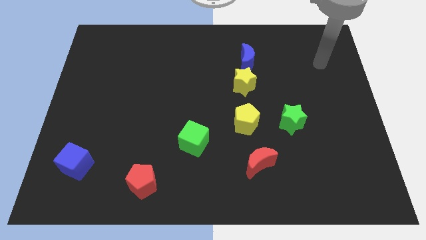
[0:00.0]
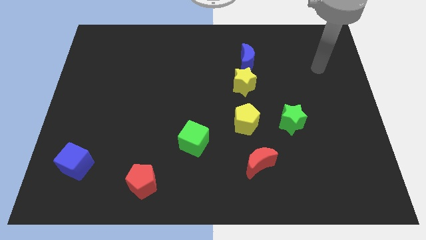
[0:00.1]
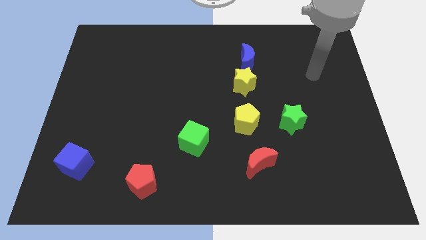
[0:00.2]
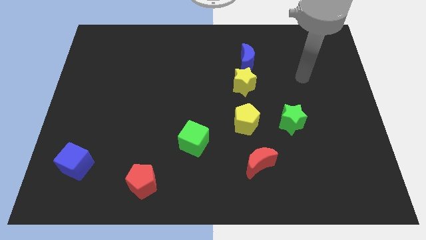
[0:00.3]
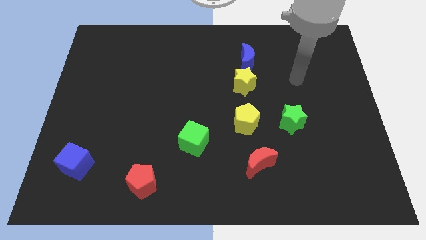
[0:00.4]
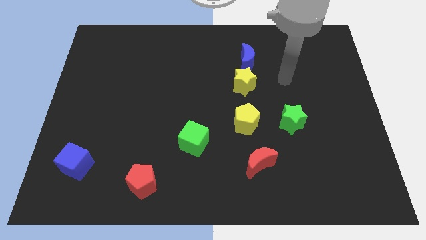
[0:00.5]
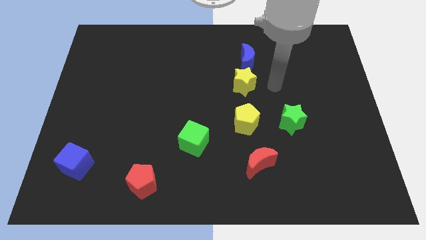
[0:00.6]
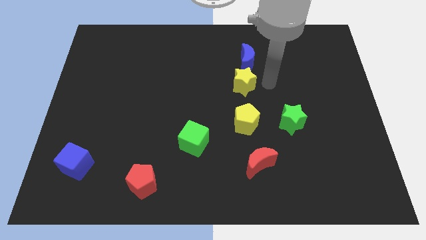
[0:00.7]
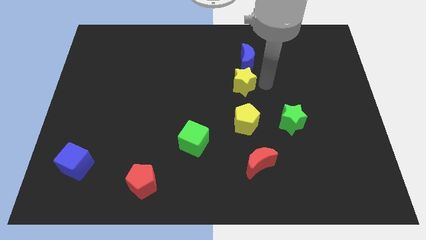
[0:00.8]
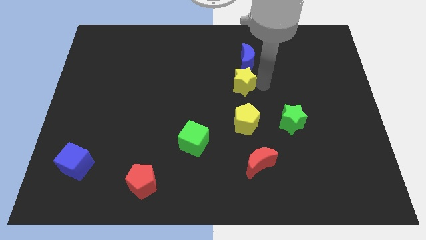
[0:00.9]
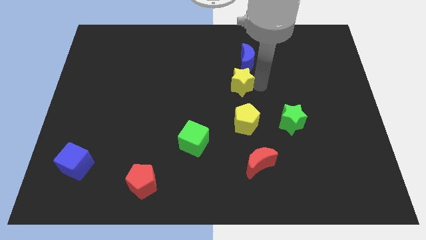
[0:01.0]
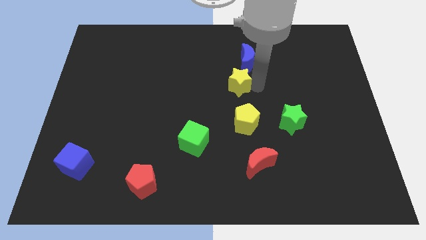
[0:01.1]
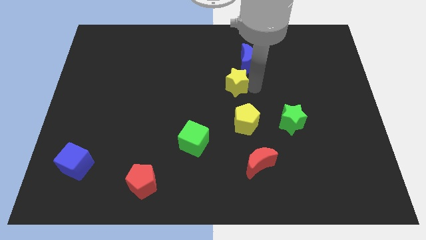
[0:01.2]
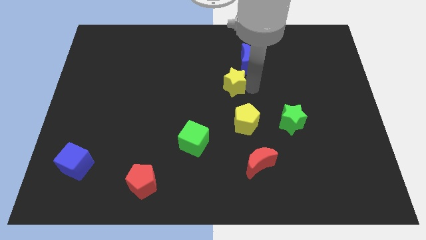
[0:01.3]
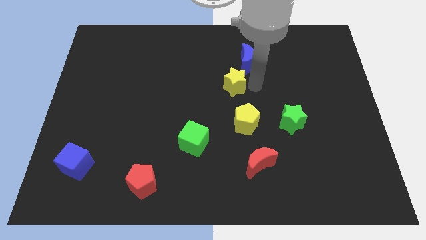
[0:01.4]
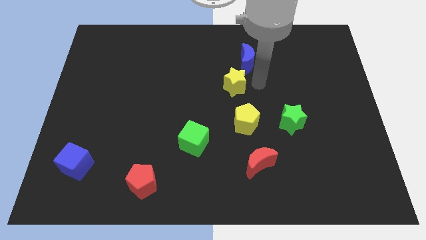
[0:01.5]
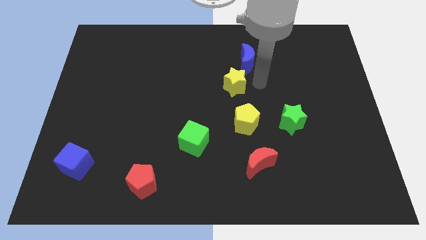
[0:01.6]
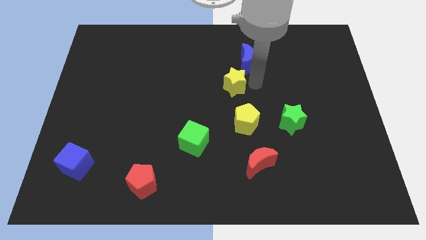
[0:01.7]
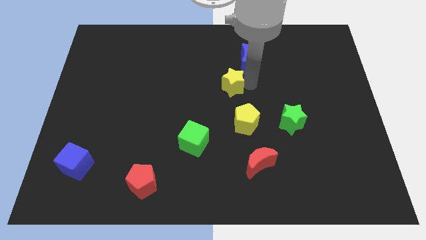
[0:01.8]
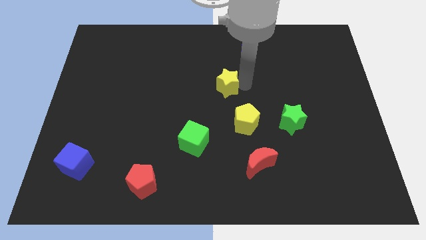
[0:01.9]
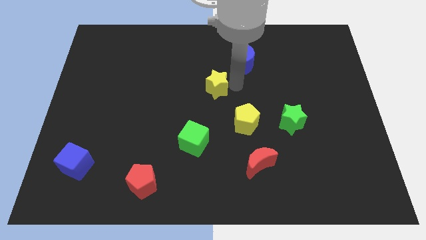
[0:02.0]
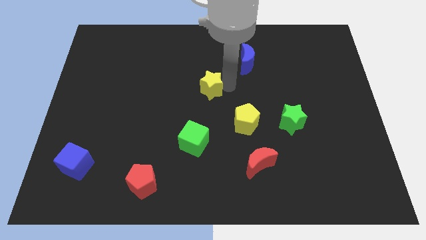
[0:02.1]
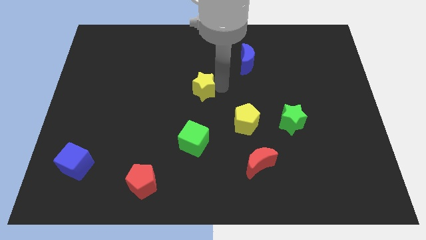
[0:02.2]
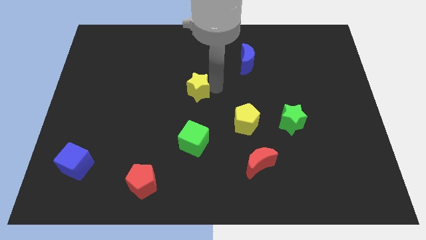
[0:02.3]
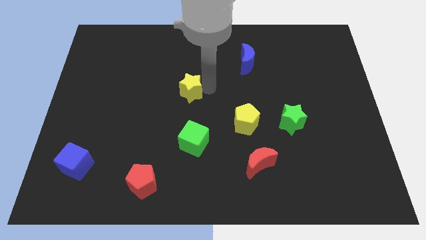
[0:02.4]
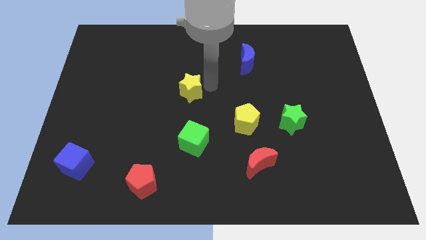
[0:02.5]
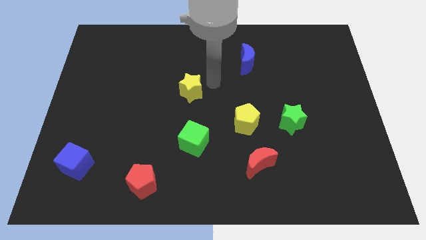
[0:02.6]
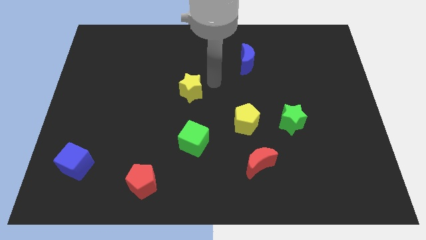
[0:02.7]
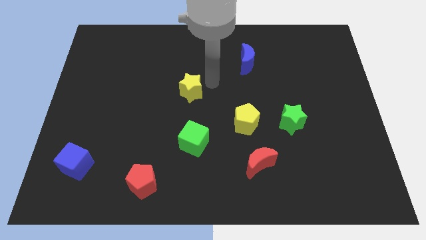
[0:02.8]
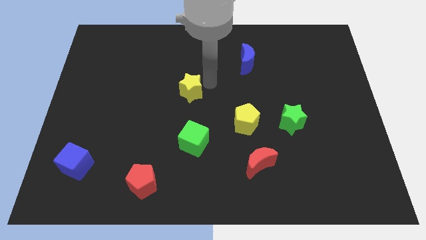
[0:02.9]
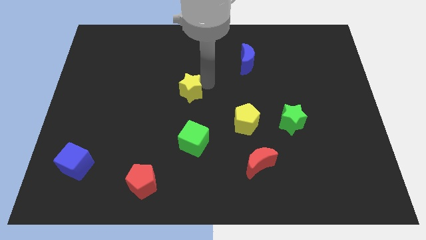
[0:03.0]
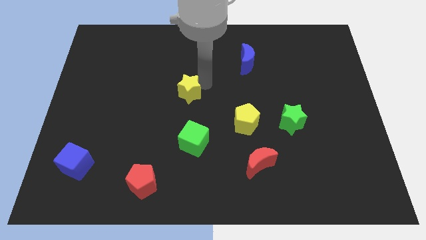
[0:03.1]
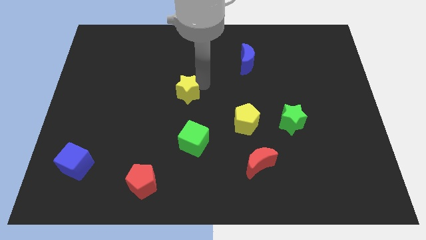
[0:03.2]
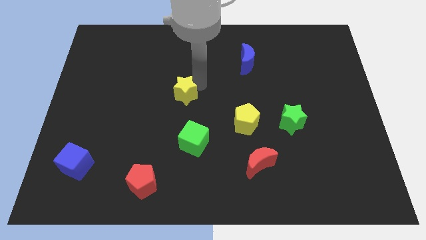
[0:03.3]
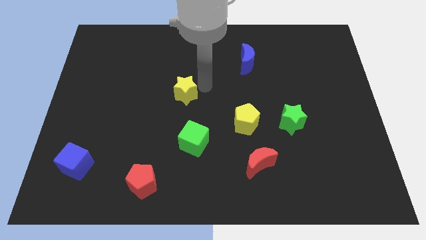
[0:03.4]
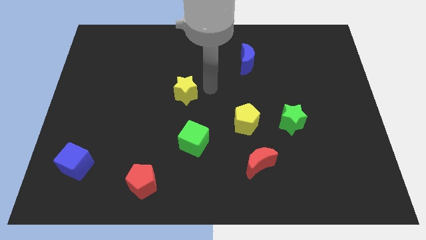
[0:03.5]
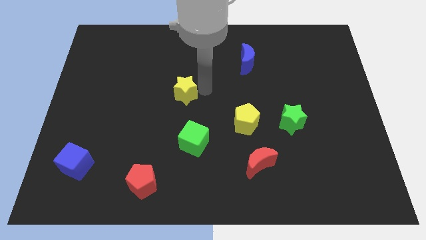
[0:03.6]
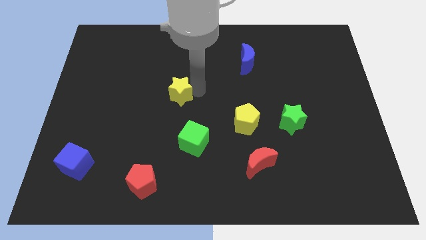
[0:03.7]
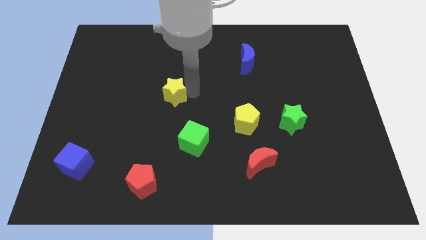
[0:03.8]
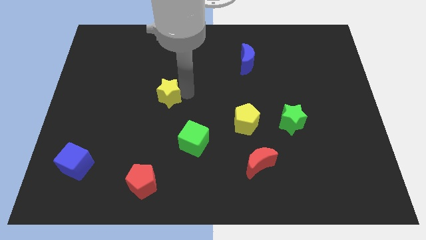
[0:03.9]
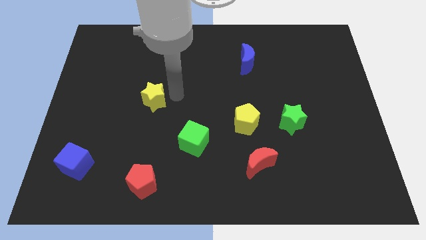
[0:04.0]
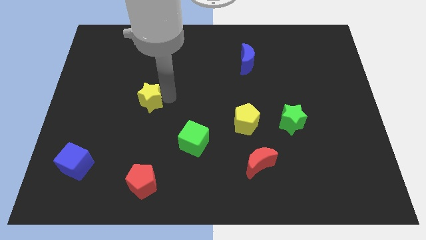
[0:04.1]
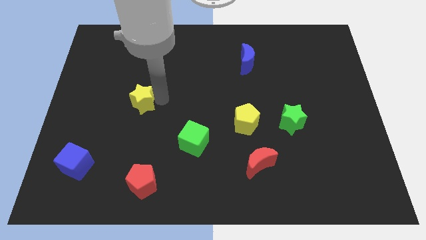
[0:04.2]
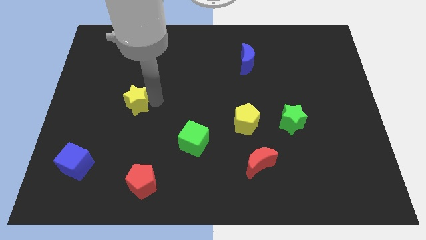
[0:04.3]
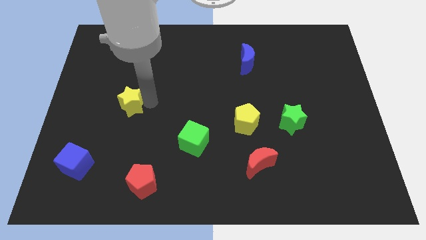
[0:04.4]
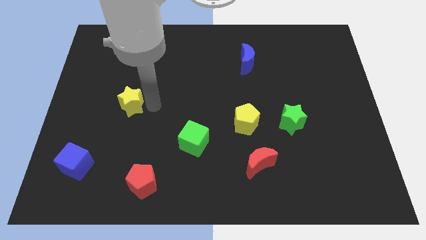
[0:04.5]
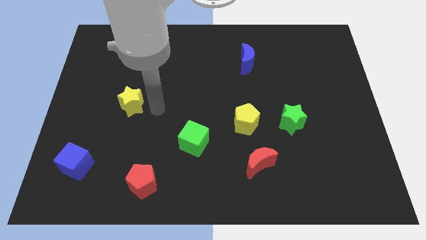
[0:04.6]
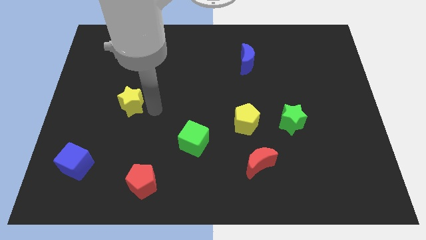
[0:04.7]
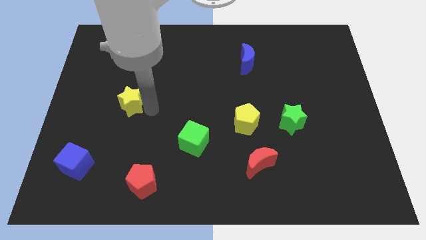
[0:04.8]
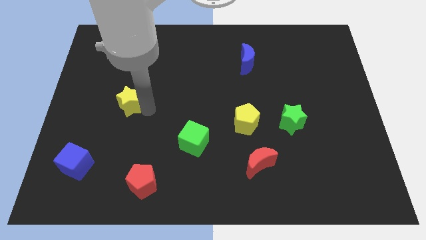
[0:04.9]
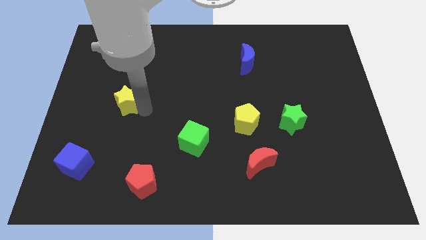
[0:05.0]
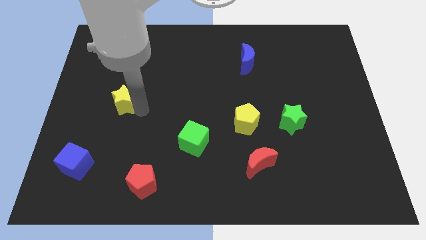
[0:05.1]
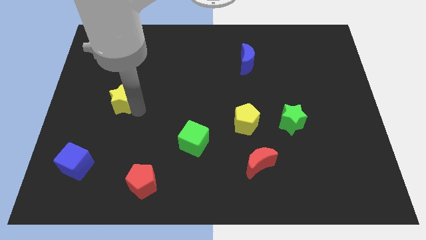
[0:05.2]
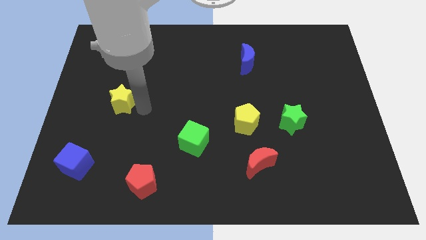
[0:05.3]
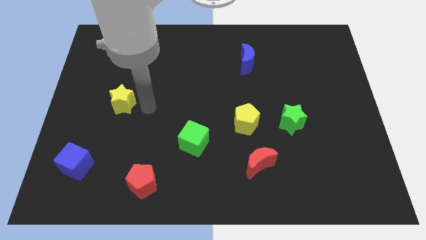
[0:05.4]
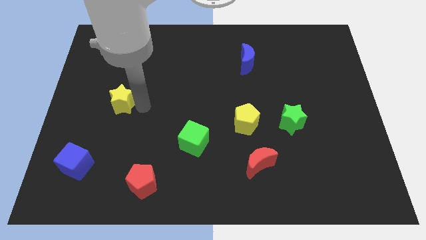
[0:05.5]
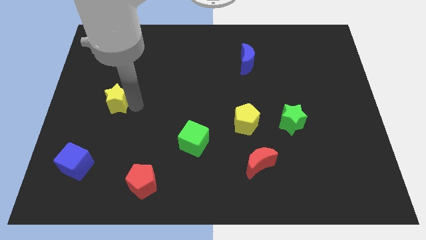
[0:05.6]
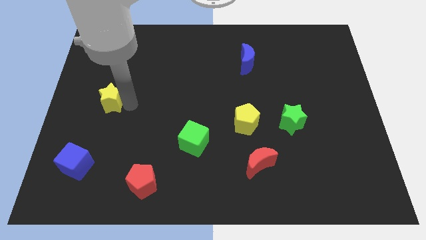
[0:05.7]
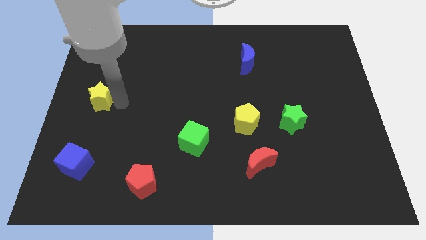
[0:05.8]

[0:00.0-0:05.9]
slide the yellow star to the left side
